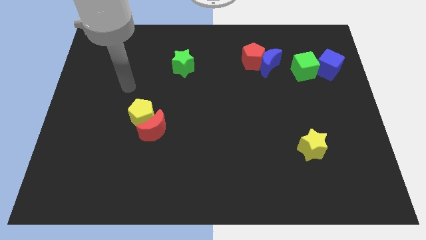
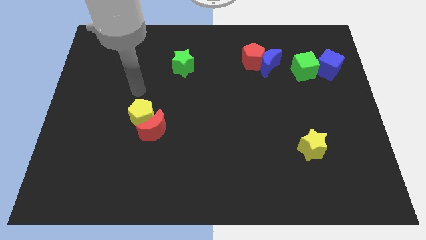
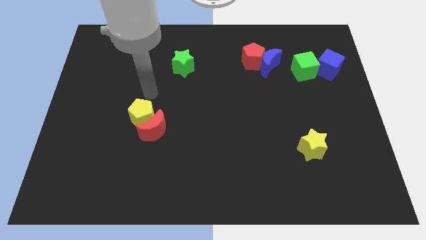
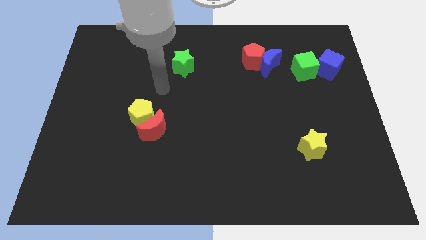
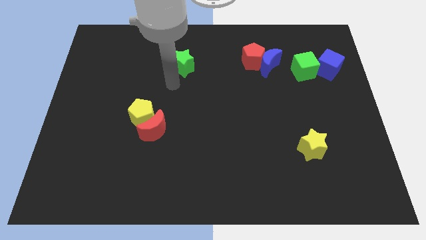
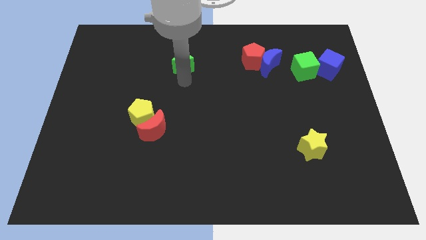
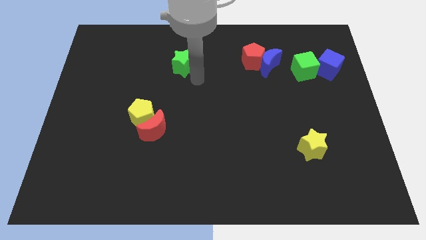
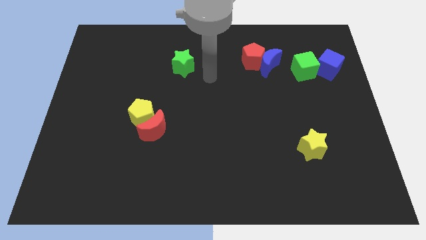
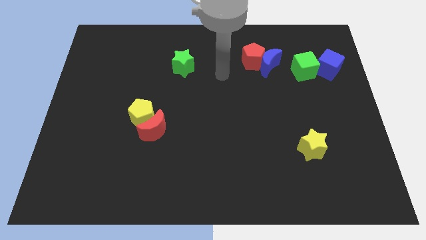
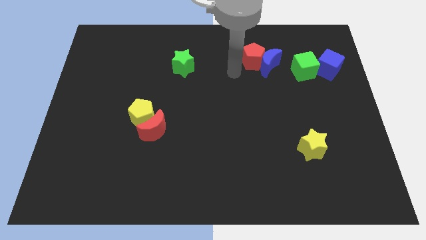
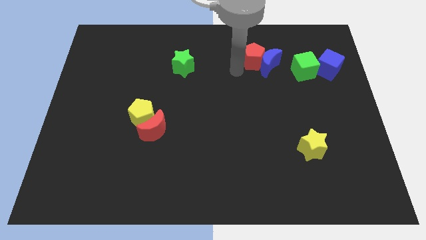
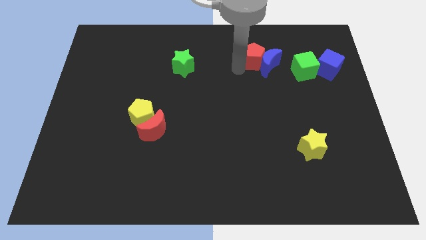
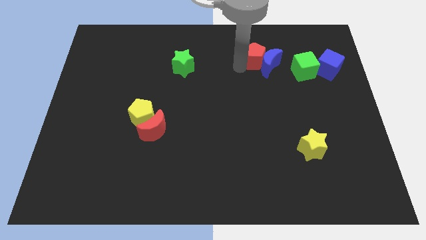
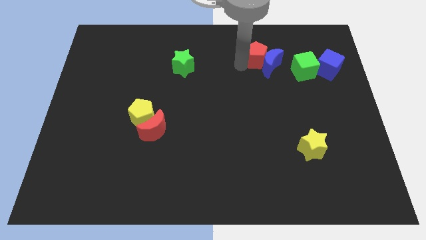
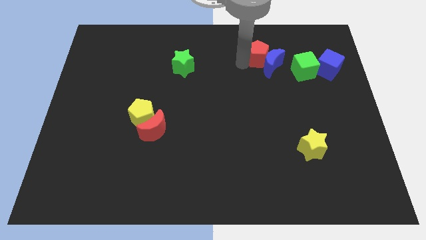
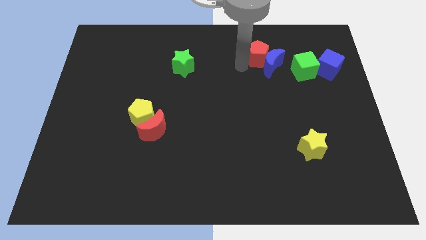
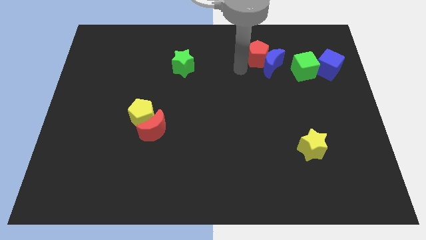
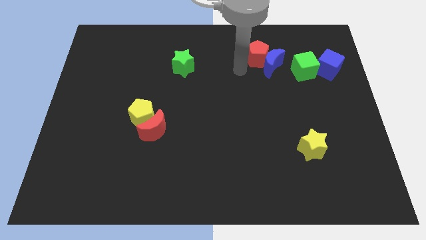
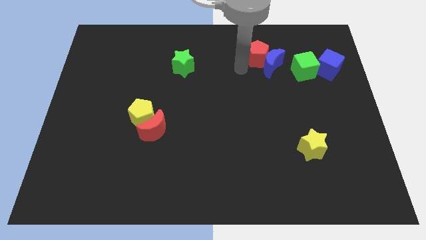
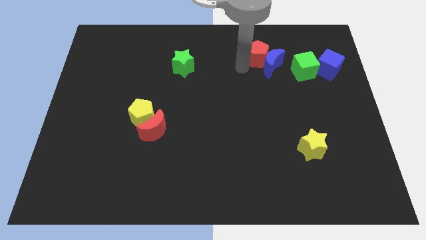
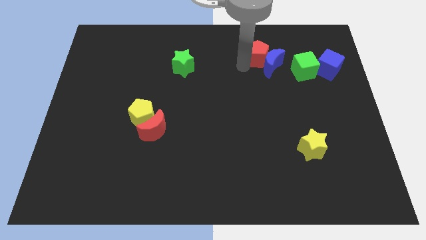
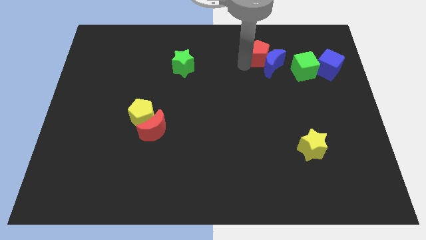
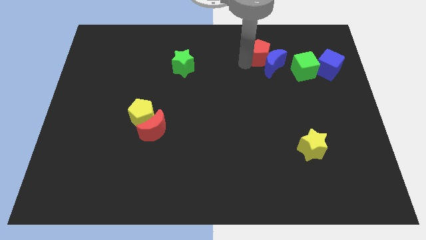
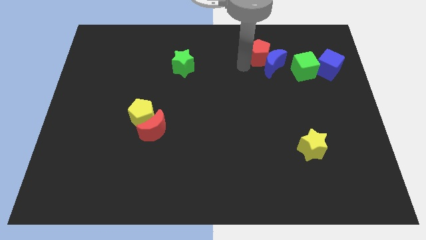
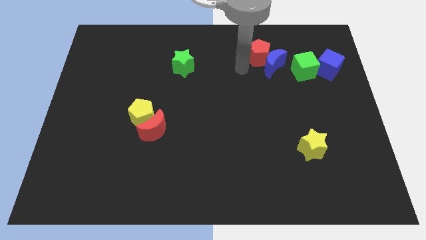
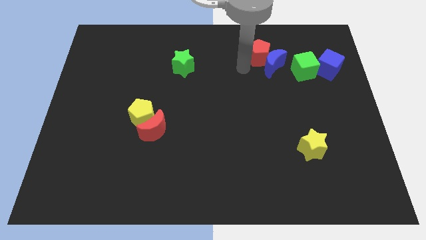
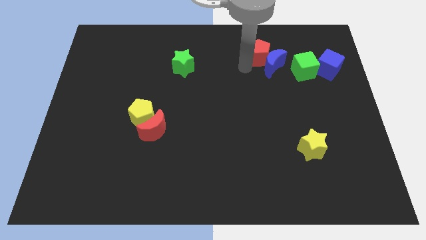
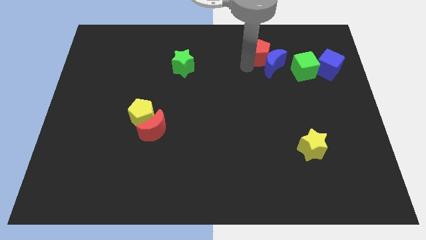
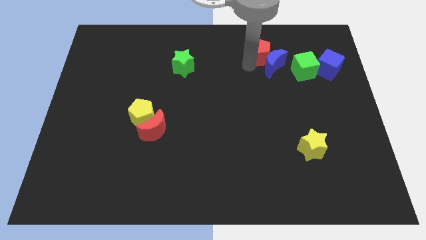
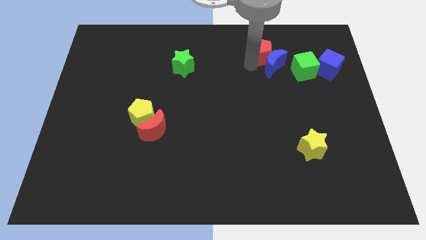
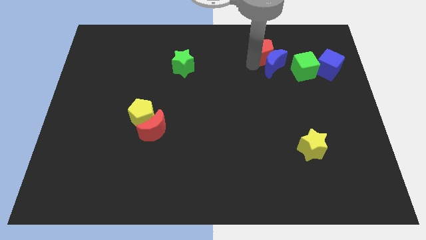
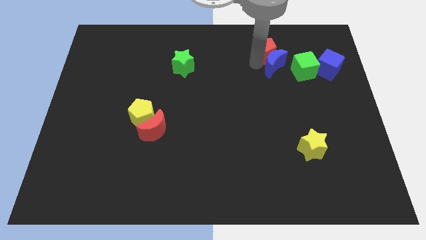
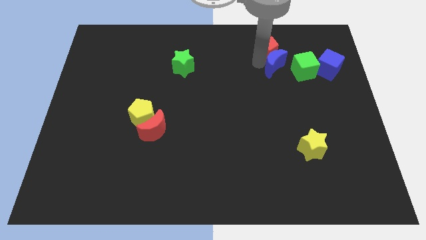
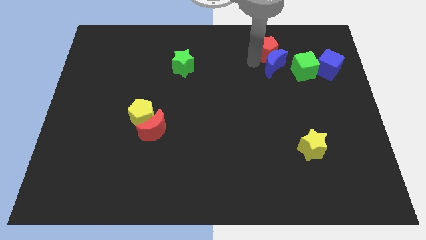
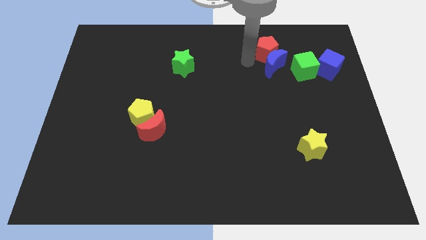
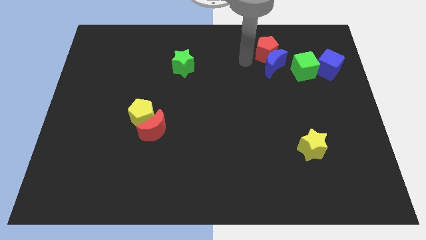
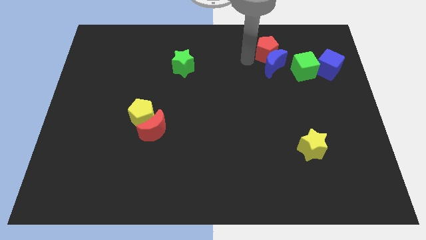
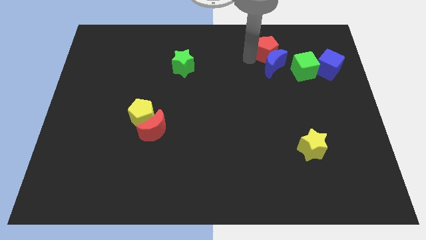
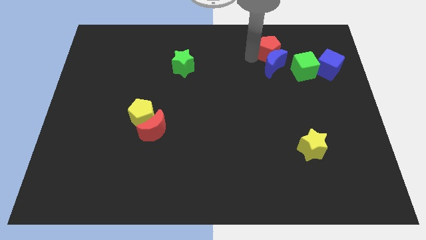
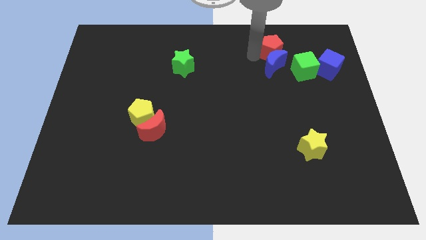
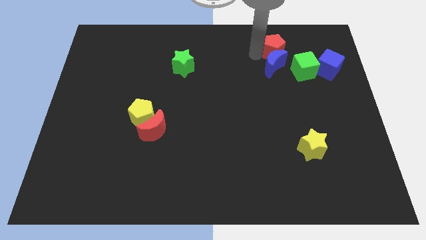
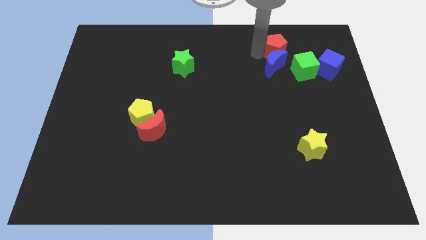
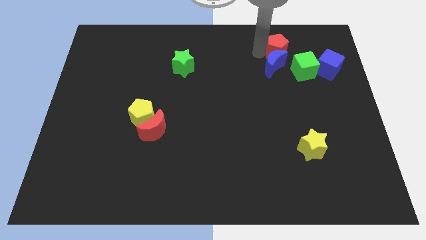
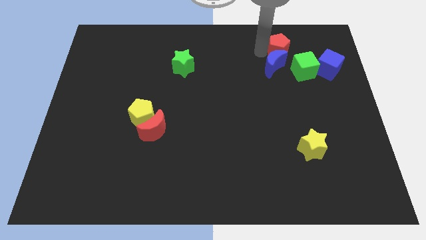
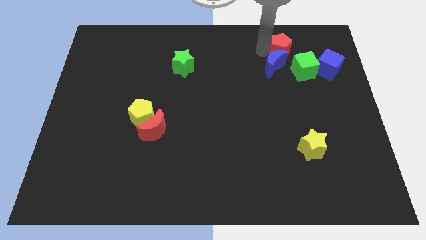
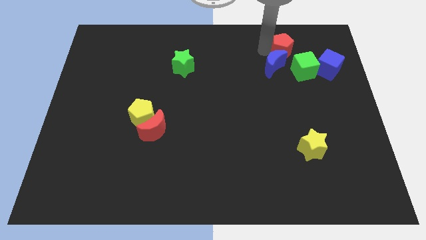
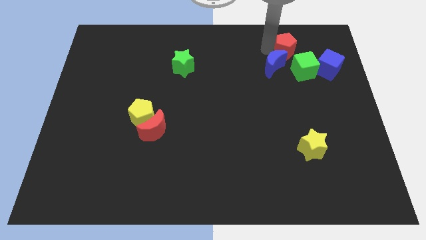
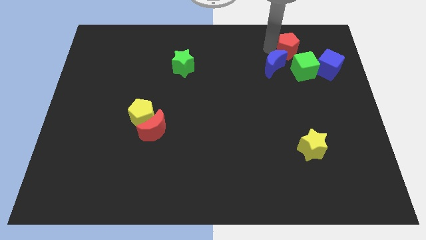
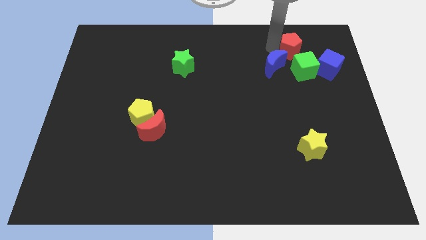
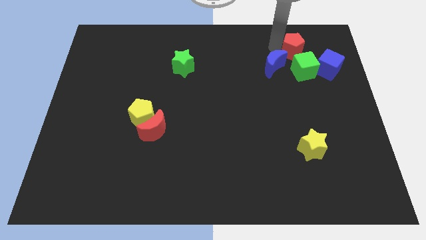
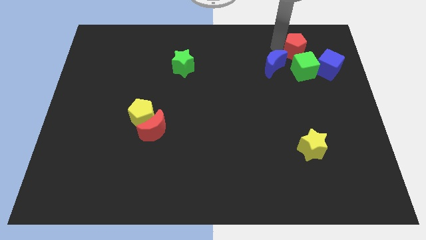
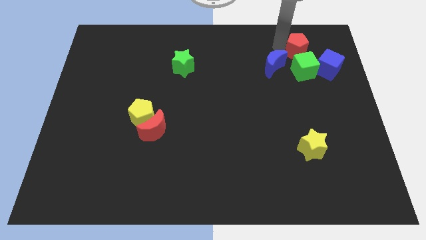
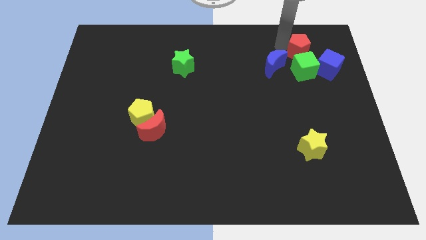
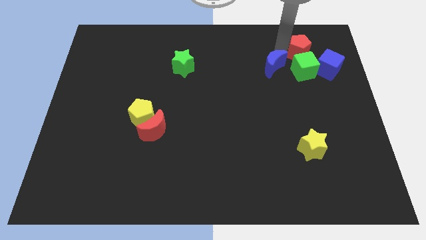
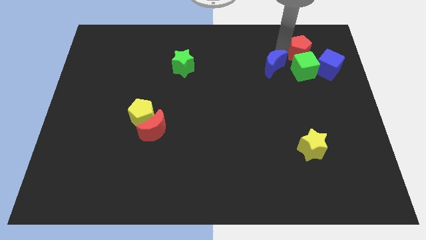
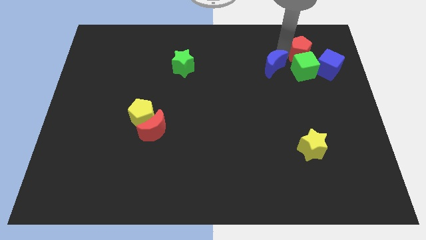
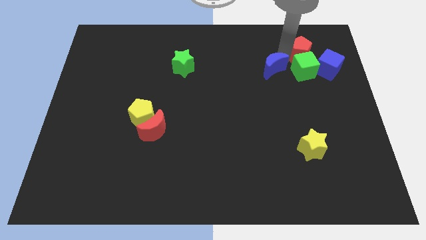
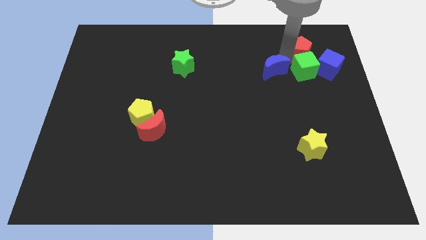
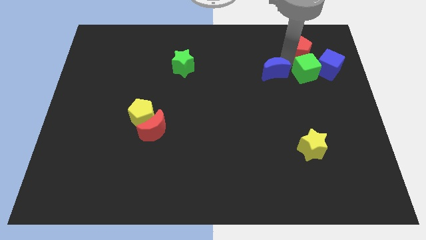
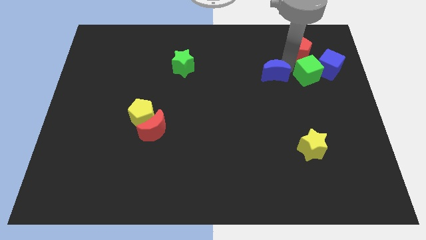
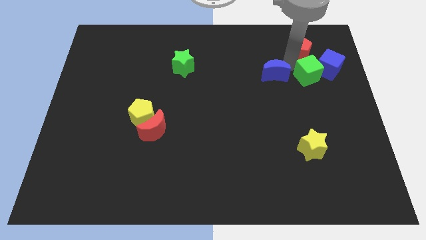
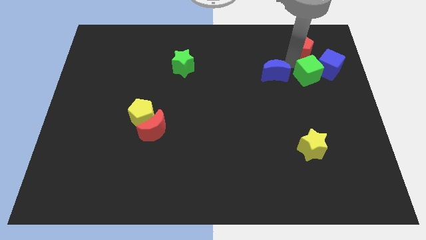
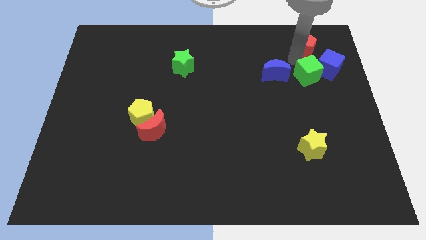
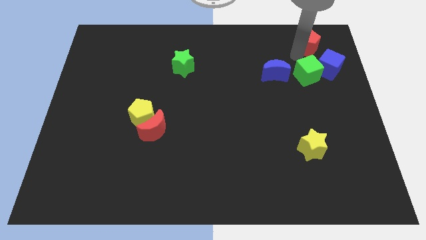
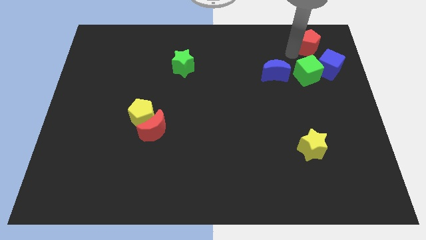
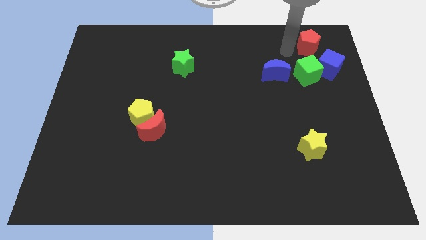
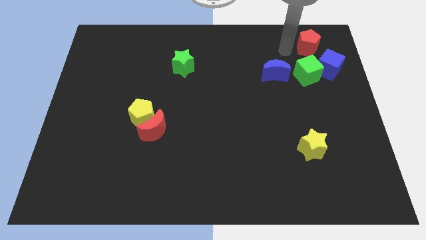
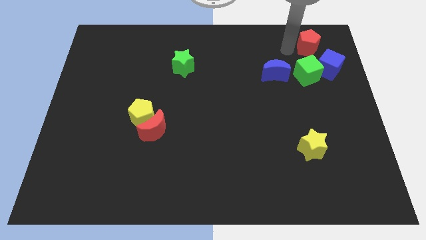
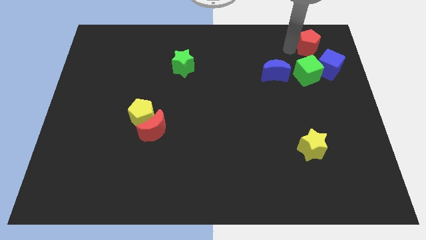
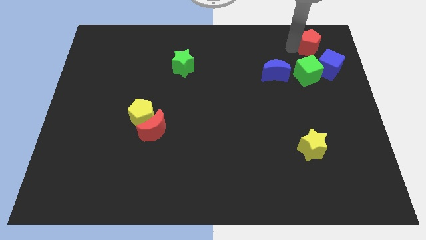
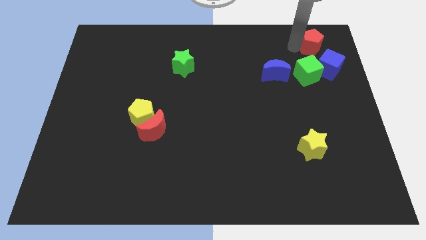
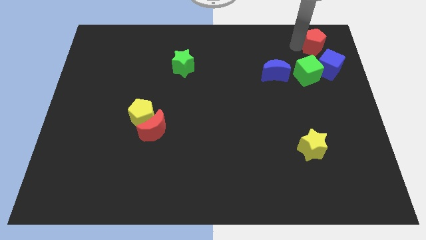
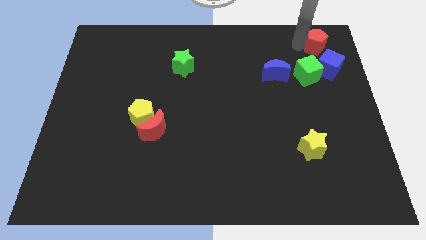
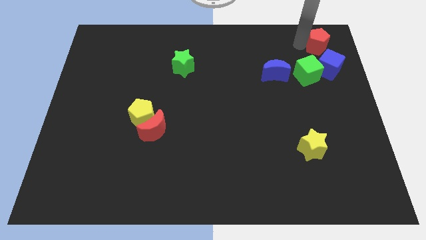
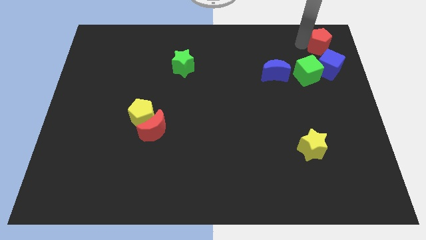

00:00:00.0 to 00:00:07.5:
move the red pentagon to the top right corner
